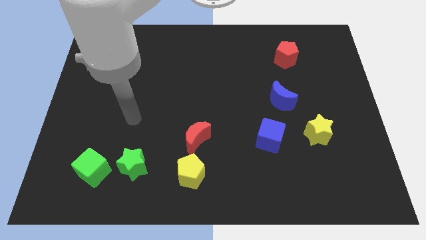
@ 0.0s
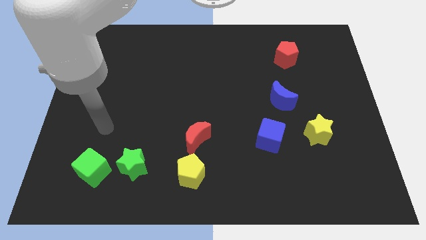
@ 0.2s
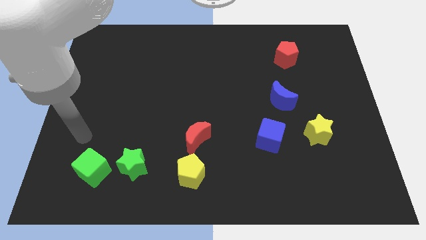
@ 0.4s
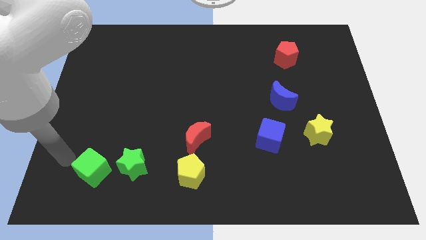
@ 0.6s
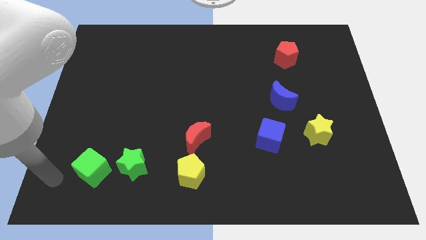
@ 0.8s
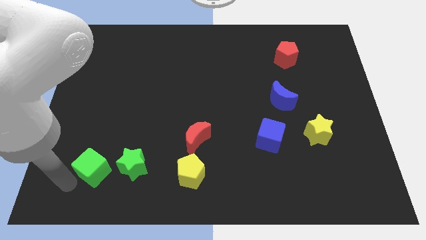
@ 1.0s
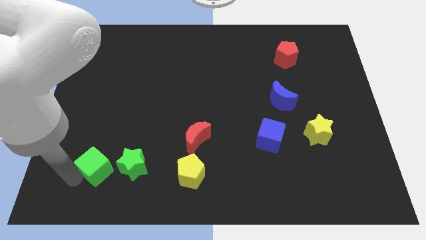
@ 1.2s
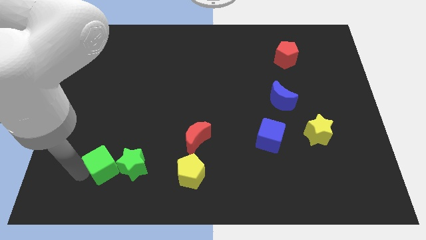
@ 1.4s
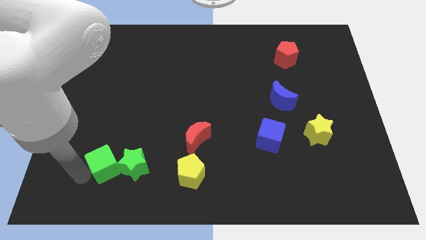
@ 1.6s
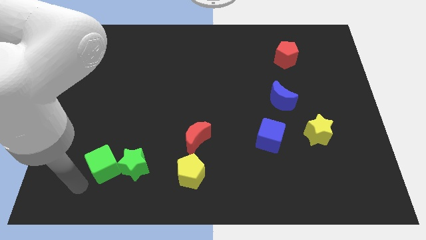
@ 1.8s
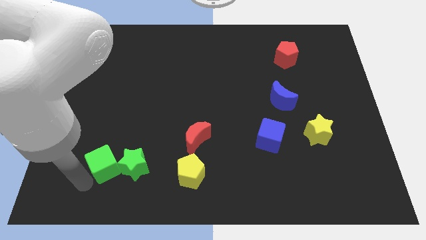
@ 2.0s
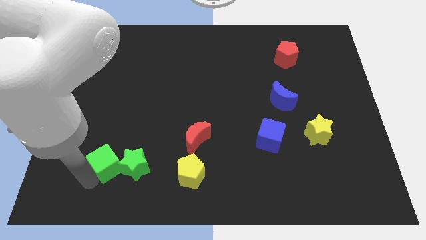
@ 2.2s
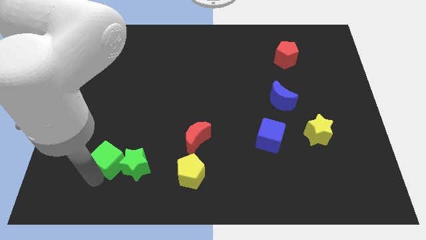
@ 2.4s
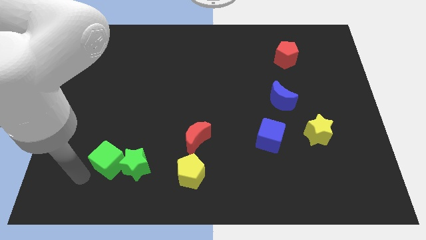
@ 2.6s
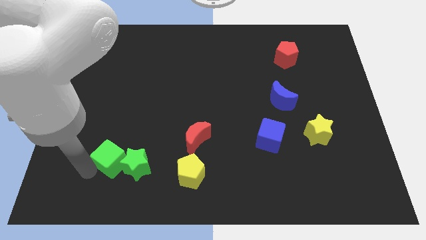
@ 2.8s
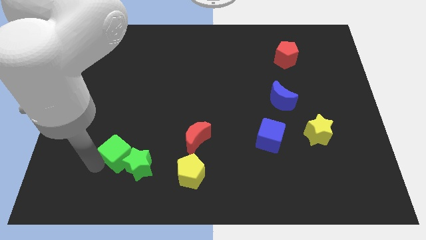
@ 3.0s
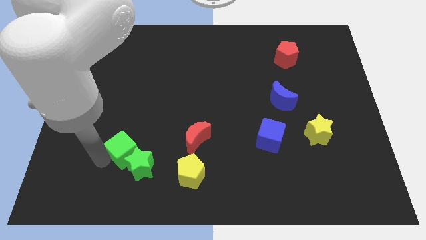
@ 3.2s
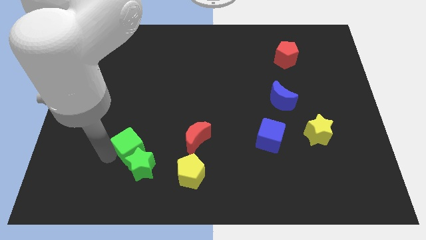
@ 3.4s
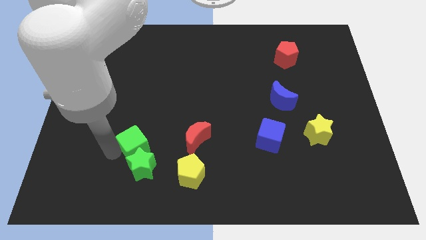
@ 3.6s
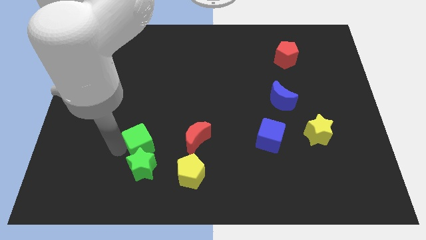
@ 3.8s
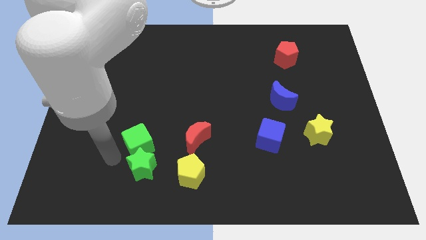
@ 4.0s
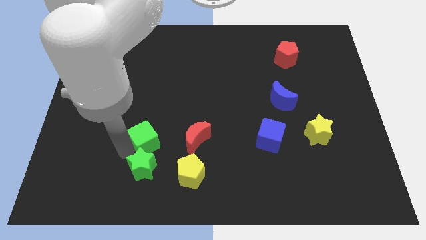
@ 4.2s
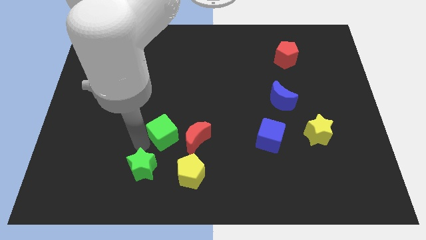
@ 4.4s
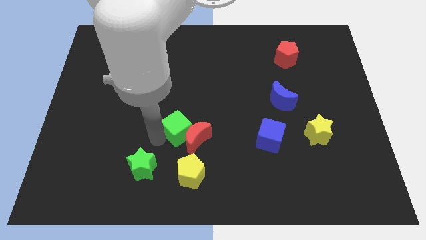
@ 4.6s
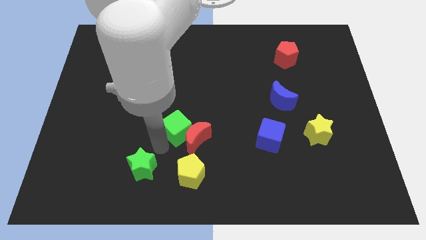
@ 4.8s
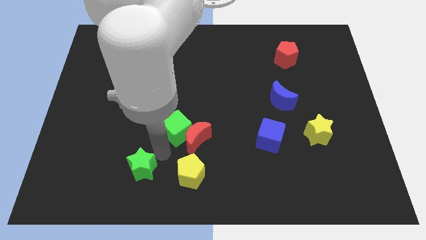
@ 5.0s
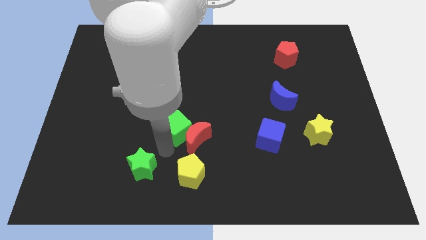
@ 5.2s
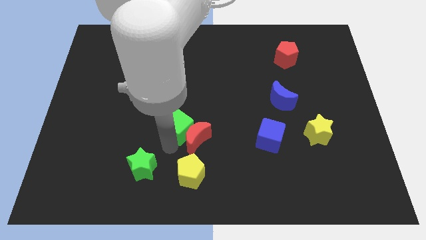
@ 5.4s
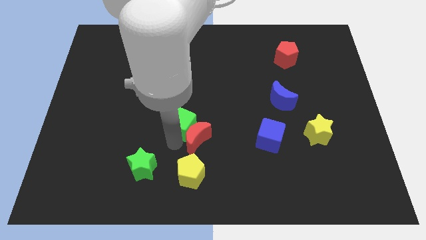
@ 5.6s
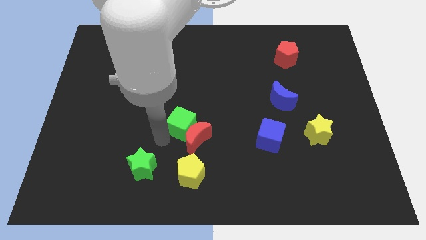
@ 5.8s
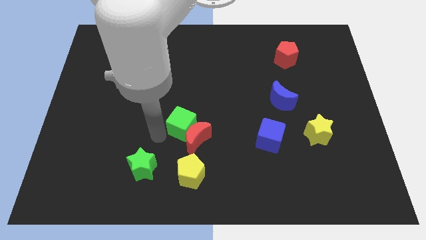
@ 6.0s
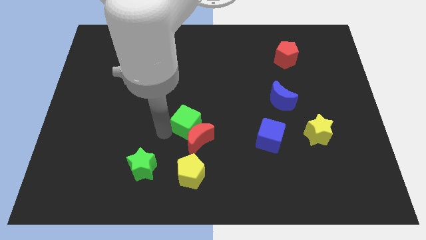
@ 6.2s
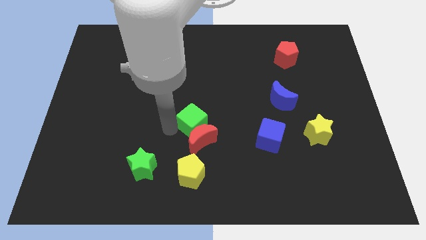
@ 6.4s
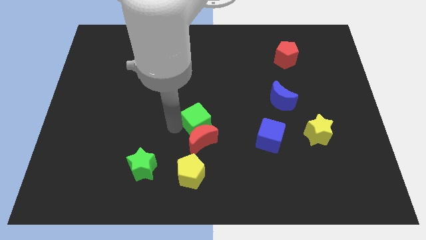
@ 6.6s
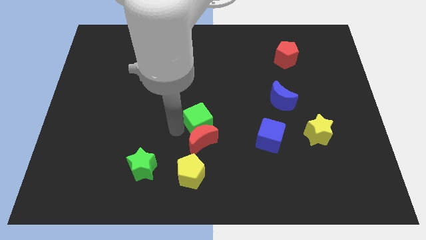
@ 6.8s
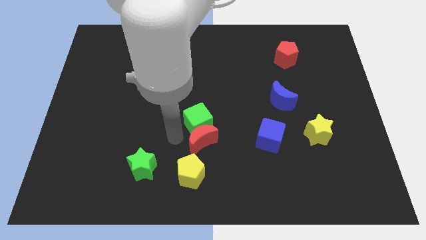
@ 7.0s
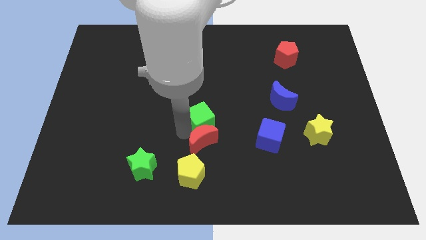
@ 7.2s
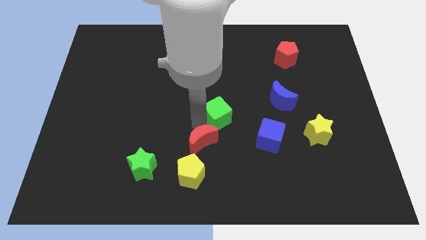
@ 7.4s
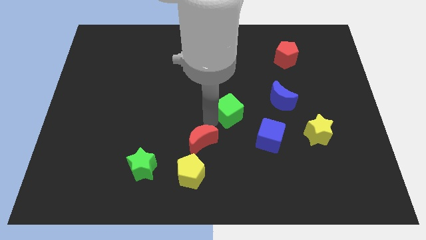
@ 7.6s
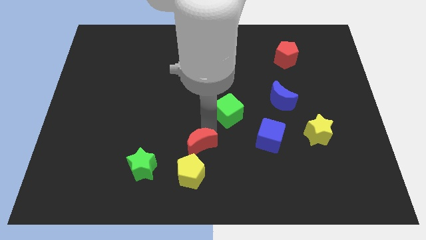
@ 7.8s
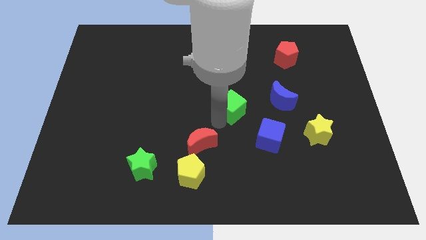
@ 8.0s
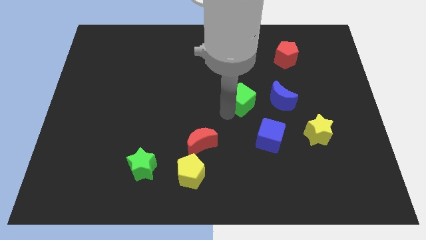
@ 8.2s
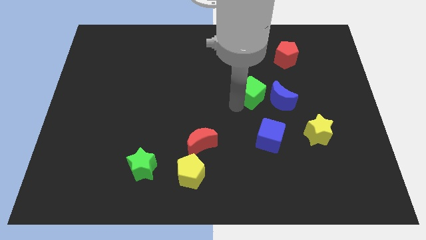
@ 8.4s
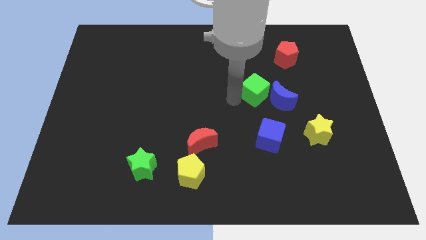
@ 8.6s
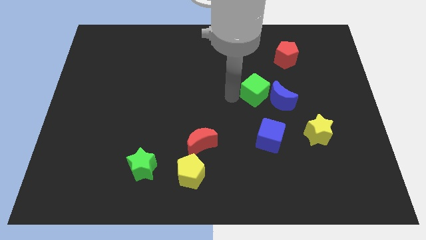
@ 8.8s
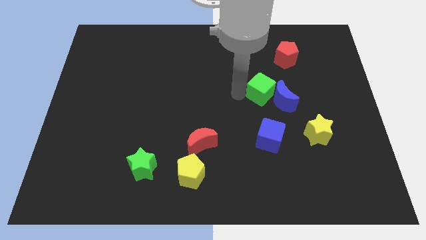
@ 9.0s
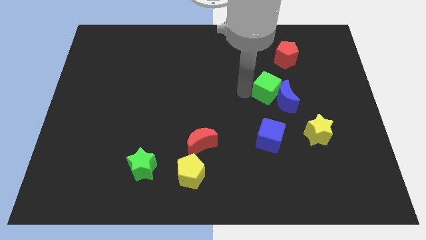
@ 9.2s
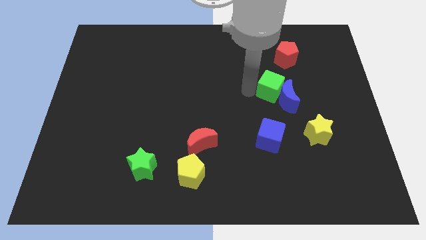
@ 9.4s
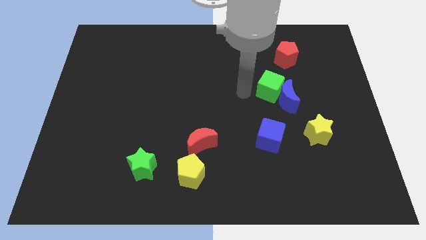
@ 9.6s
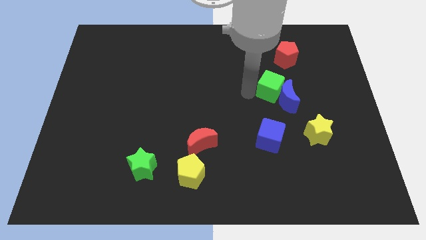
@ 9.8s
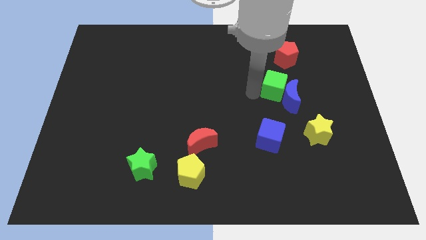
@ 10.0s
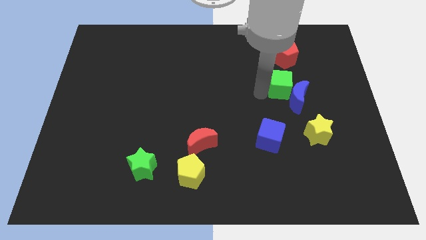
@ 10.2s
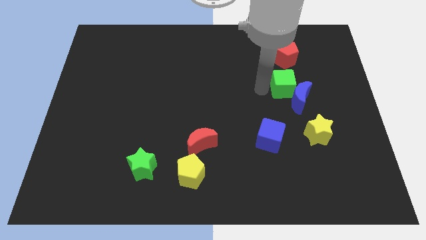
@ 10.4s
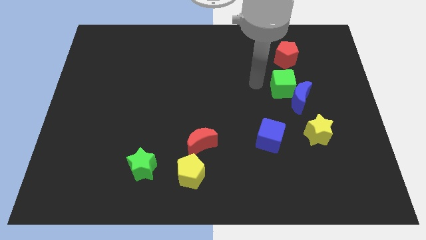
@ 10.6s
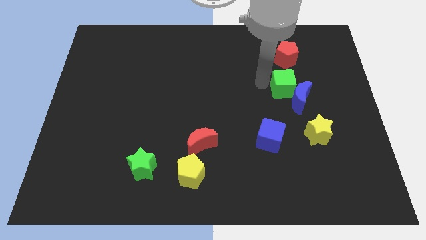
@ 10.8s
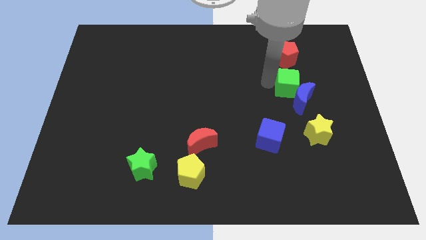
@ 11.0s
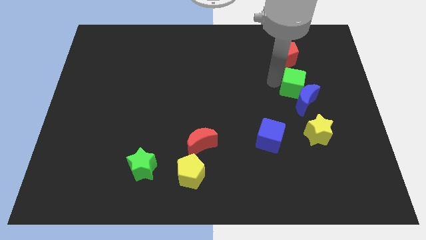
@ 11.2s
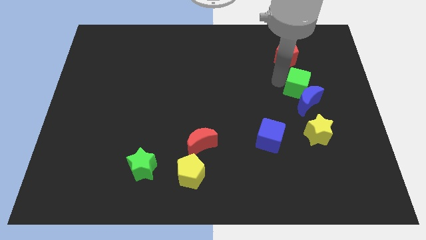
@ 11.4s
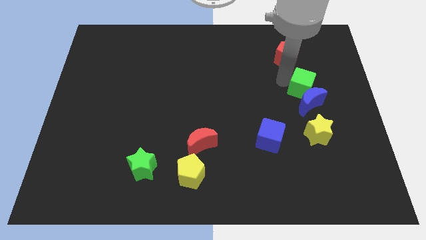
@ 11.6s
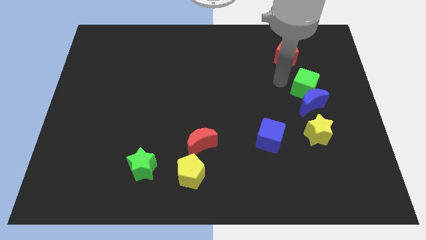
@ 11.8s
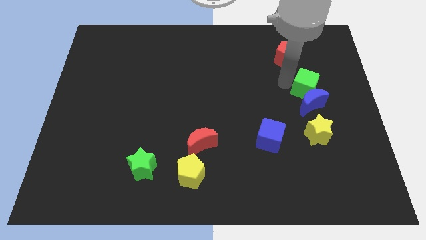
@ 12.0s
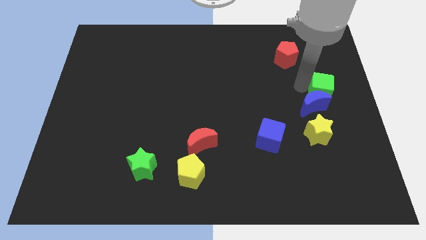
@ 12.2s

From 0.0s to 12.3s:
move the green cube to the right side of the board

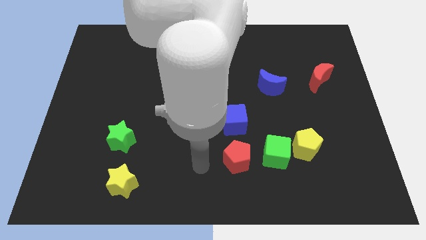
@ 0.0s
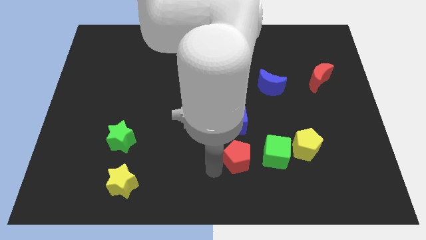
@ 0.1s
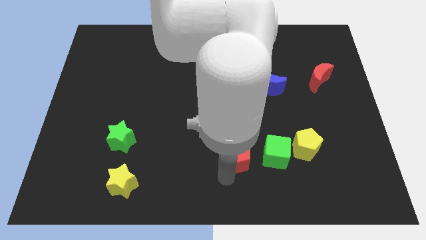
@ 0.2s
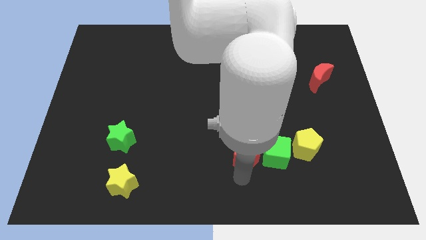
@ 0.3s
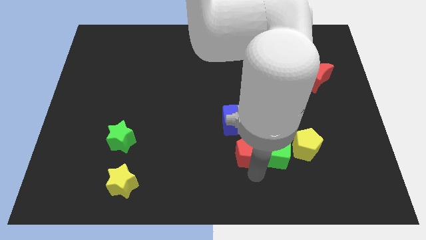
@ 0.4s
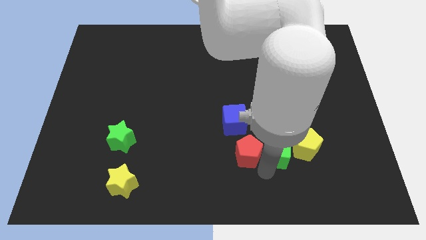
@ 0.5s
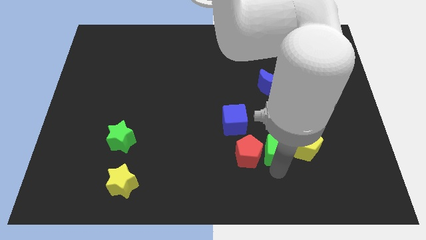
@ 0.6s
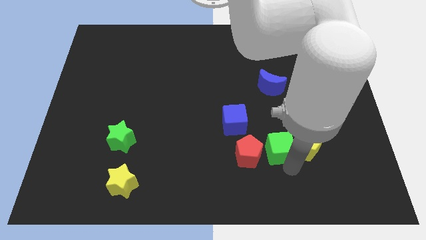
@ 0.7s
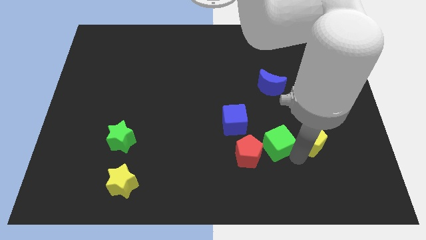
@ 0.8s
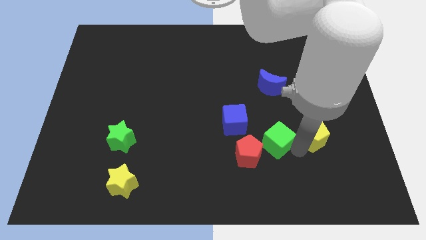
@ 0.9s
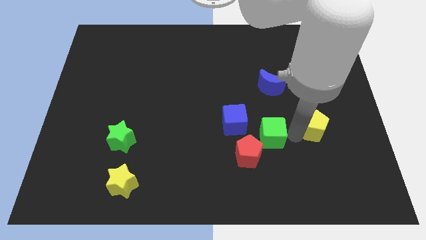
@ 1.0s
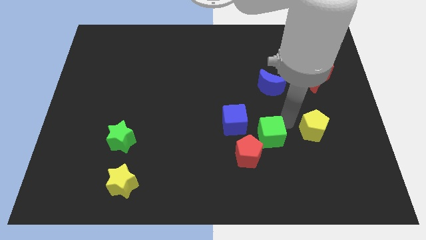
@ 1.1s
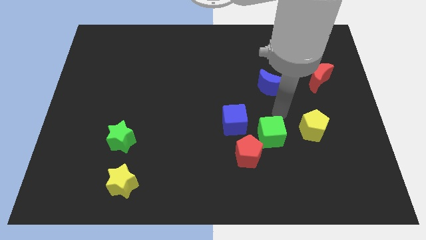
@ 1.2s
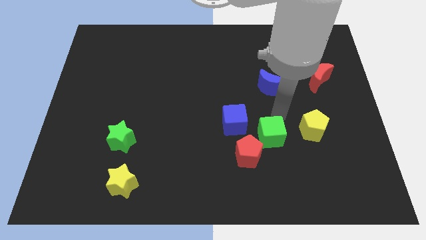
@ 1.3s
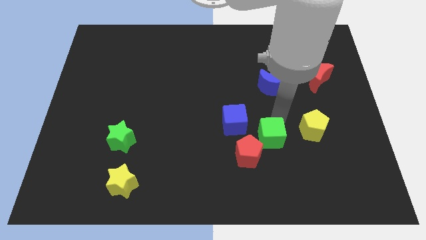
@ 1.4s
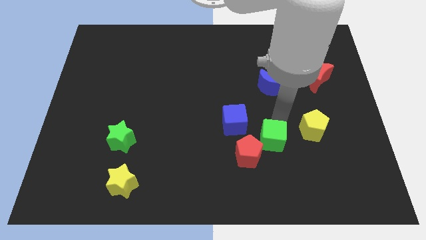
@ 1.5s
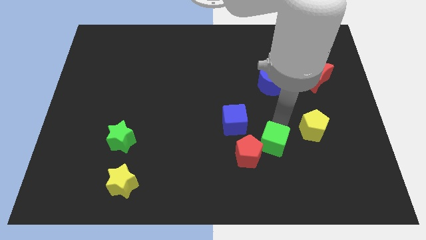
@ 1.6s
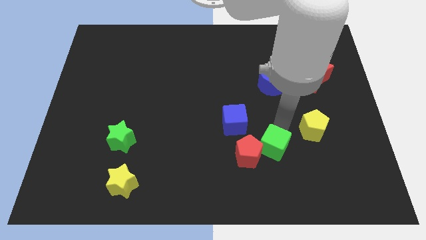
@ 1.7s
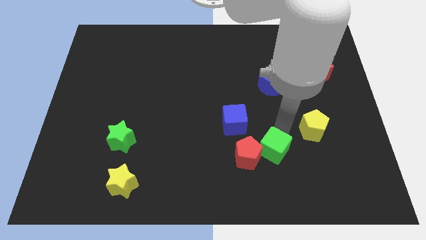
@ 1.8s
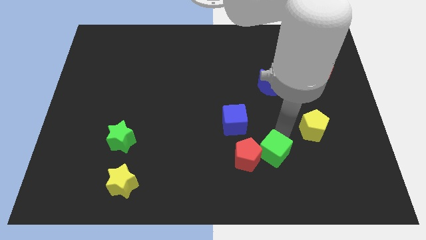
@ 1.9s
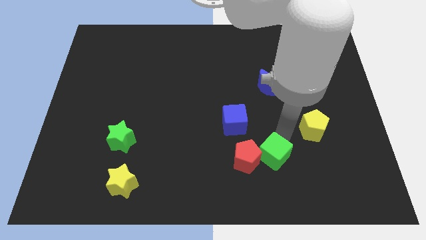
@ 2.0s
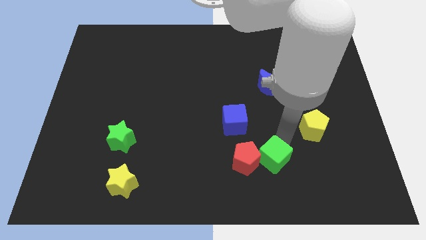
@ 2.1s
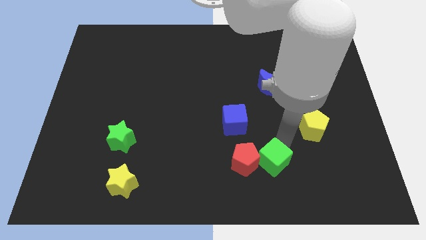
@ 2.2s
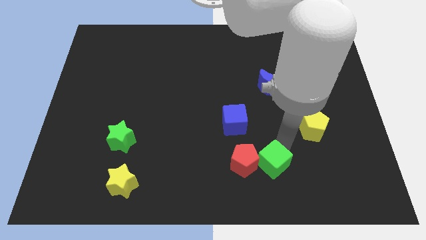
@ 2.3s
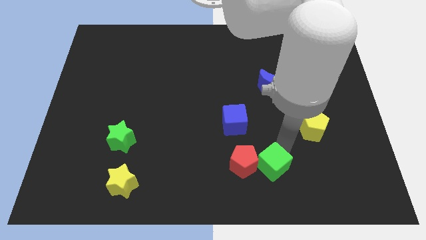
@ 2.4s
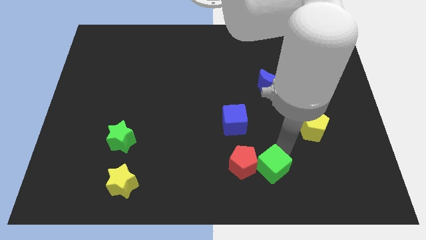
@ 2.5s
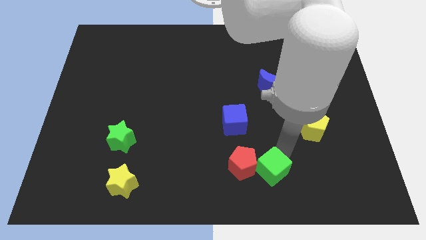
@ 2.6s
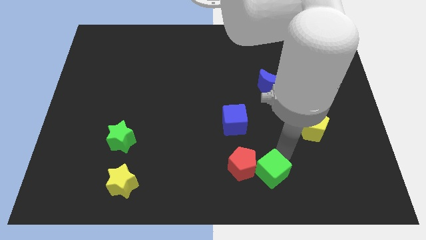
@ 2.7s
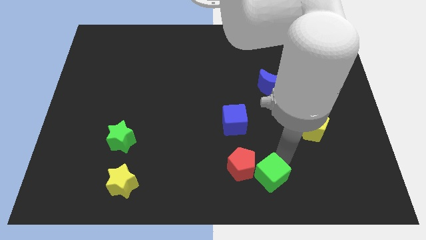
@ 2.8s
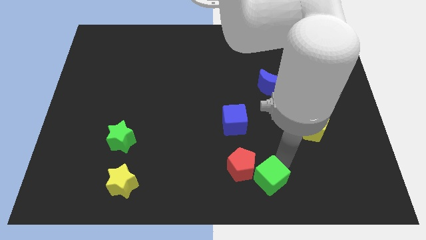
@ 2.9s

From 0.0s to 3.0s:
put the green cube to the bottom
